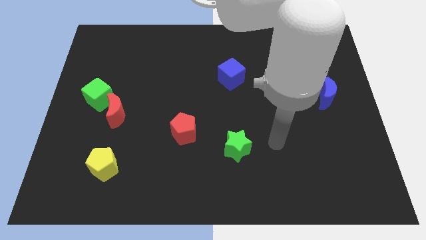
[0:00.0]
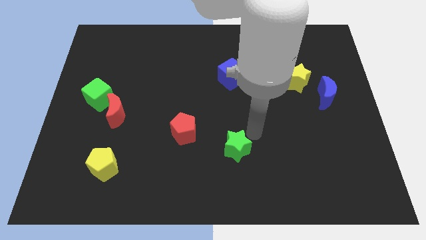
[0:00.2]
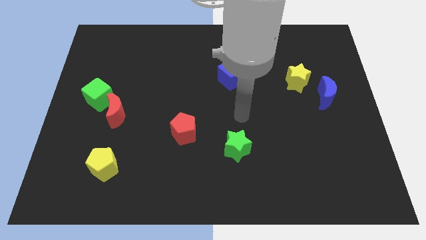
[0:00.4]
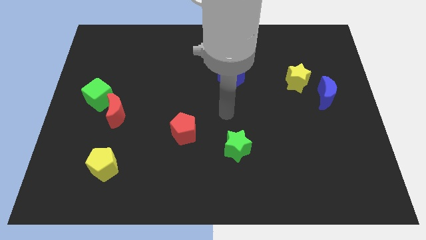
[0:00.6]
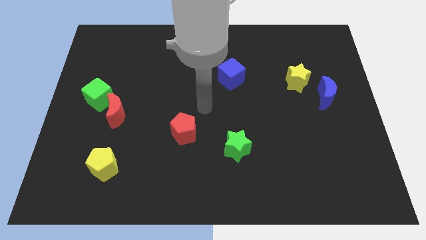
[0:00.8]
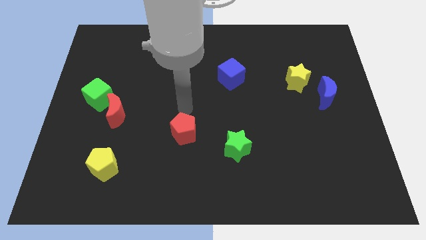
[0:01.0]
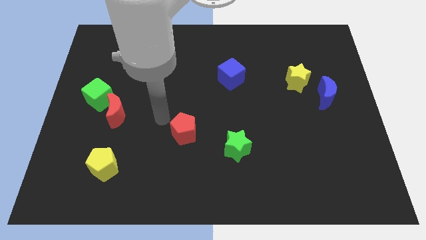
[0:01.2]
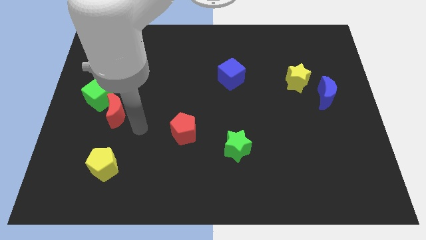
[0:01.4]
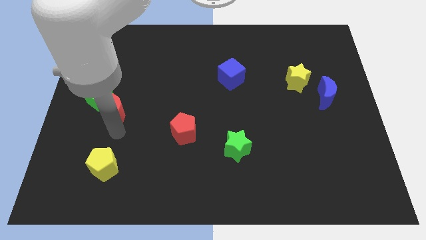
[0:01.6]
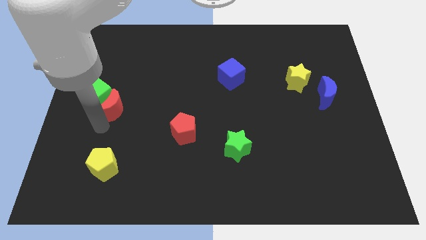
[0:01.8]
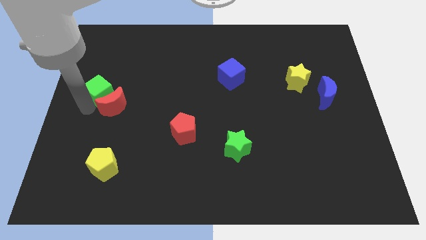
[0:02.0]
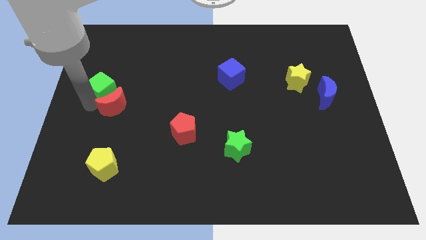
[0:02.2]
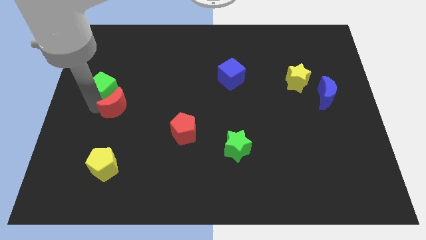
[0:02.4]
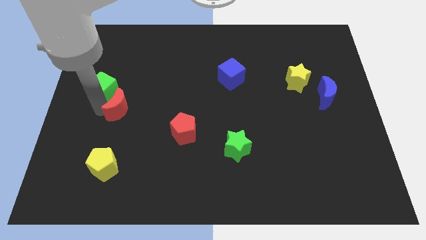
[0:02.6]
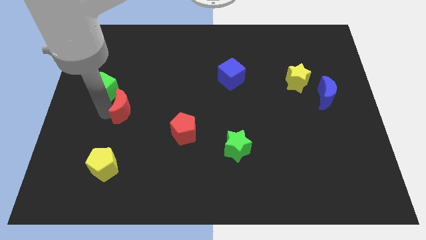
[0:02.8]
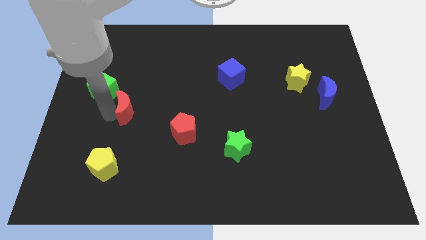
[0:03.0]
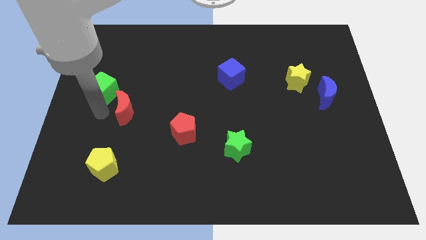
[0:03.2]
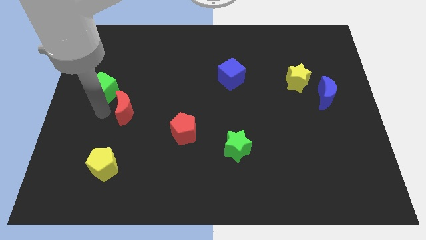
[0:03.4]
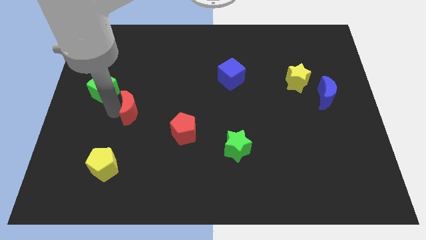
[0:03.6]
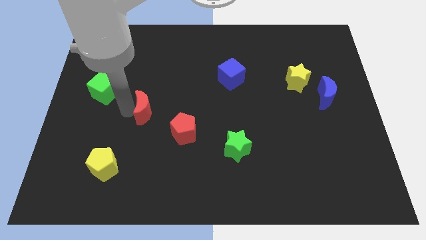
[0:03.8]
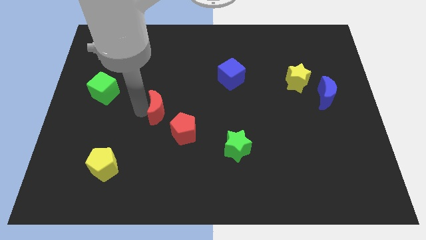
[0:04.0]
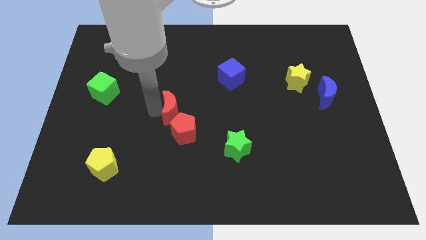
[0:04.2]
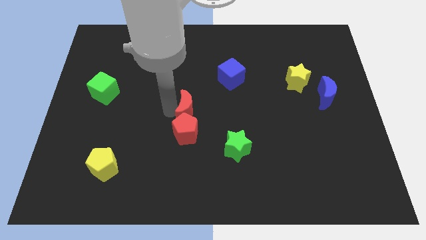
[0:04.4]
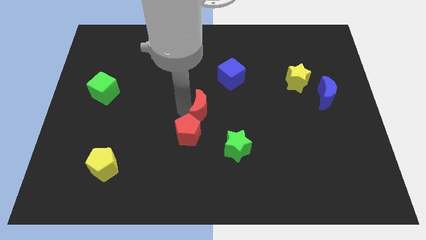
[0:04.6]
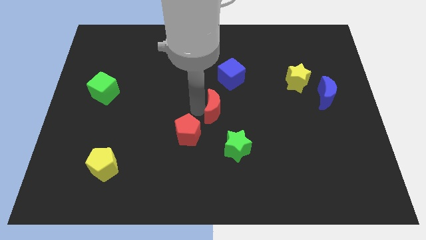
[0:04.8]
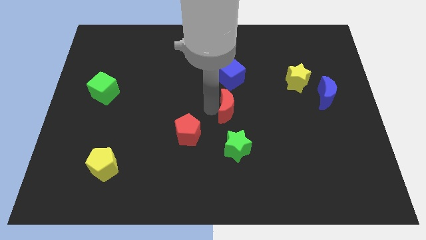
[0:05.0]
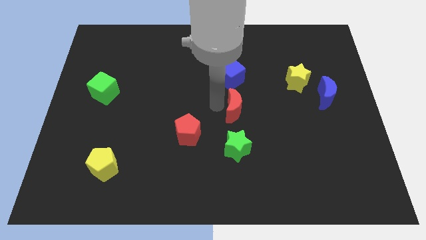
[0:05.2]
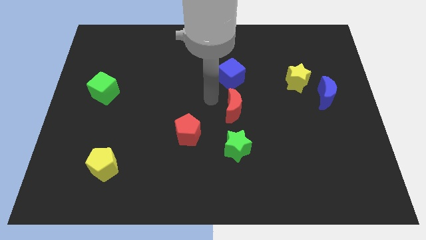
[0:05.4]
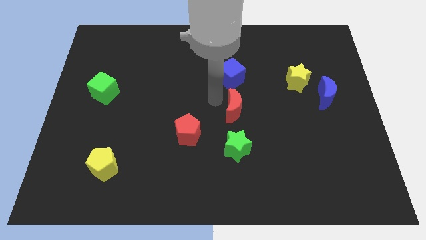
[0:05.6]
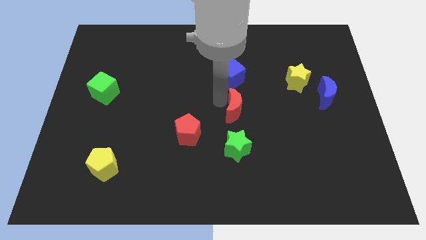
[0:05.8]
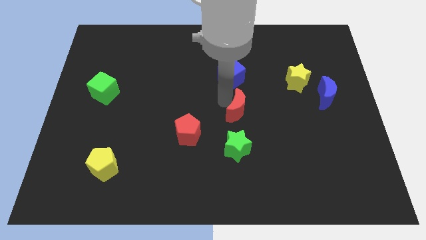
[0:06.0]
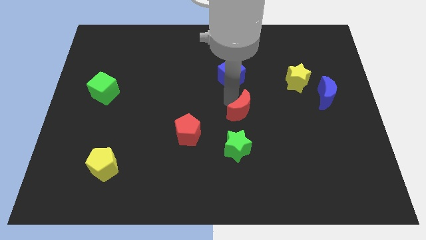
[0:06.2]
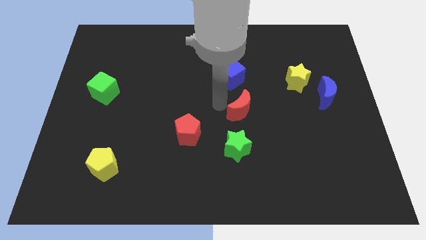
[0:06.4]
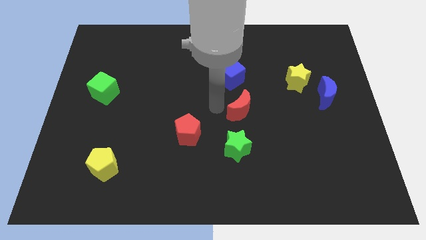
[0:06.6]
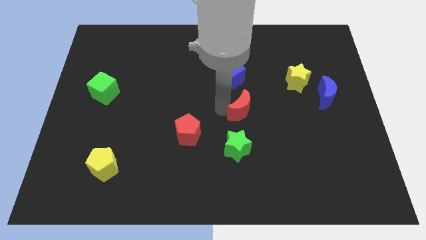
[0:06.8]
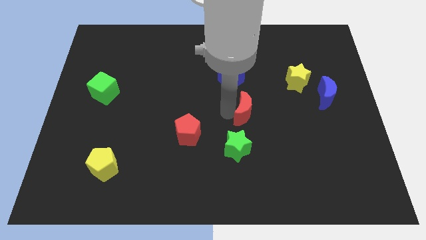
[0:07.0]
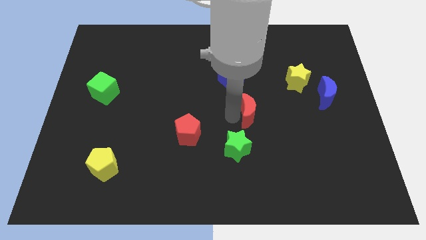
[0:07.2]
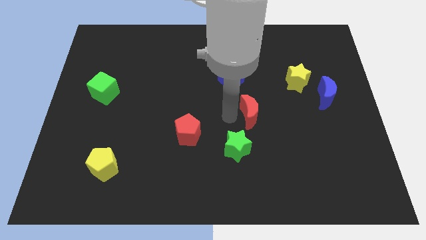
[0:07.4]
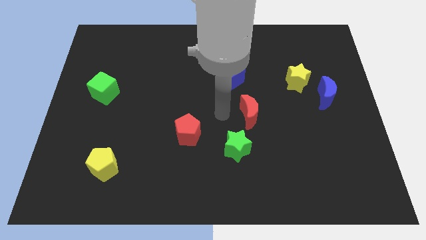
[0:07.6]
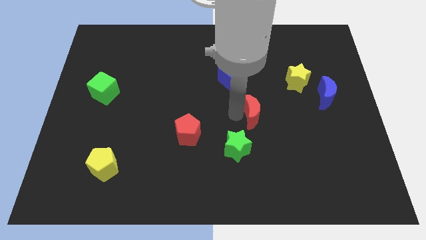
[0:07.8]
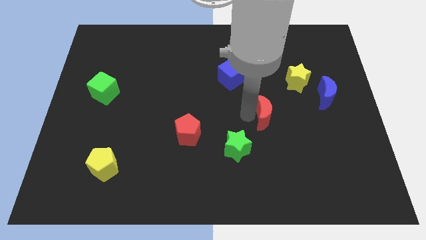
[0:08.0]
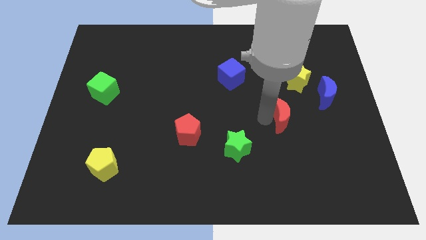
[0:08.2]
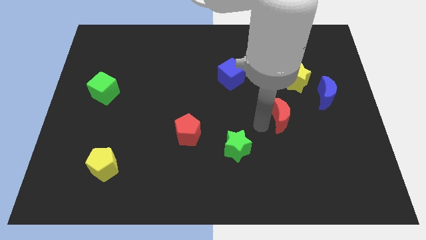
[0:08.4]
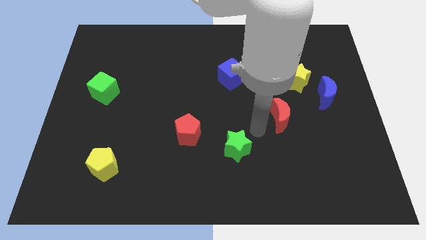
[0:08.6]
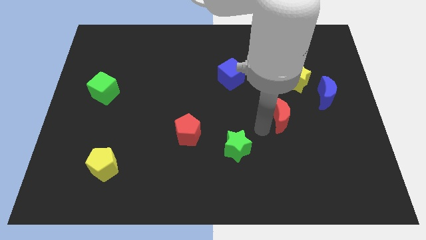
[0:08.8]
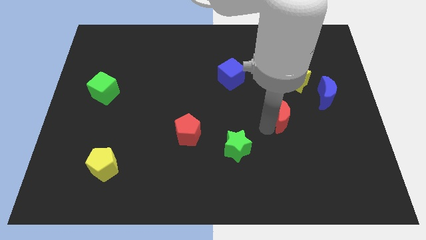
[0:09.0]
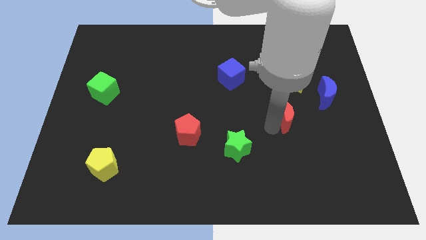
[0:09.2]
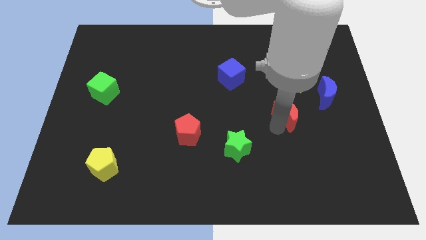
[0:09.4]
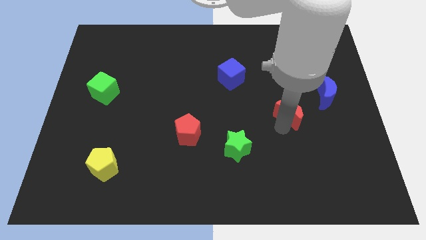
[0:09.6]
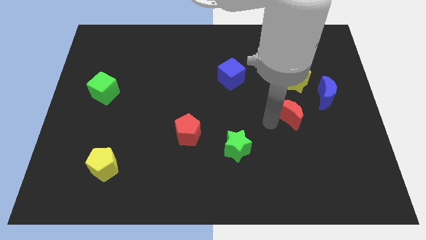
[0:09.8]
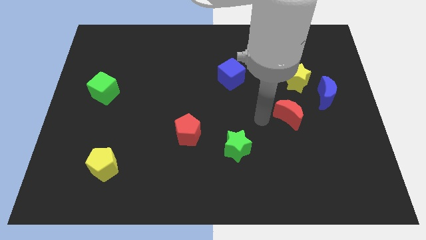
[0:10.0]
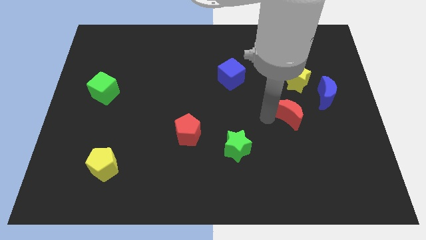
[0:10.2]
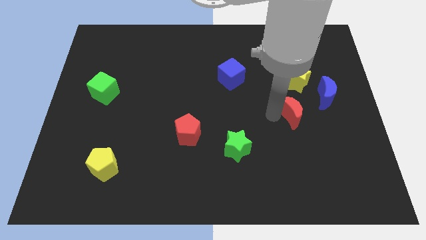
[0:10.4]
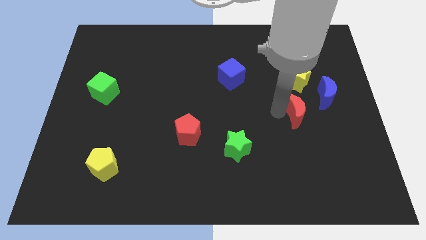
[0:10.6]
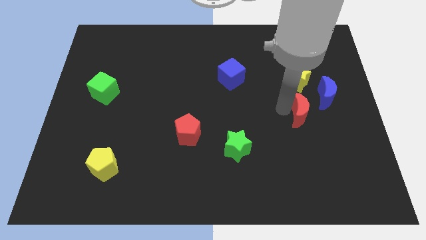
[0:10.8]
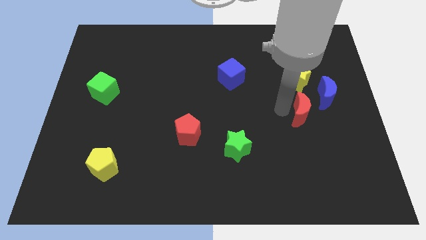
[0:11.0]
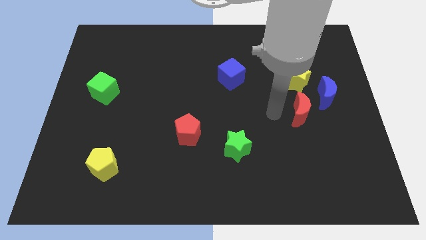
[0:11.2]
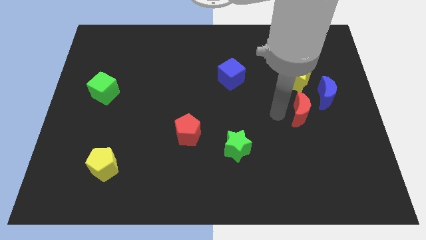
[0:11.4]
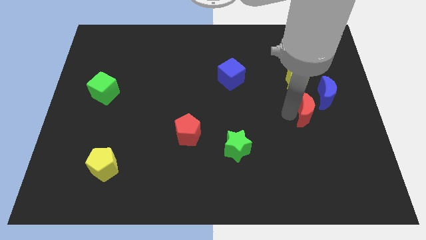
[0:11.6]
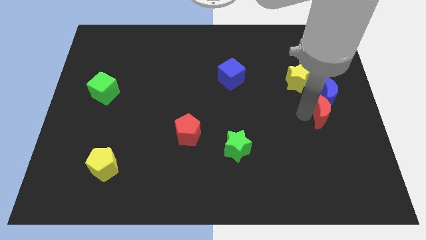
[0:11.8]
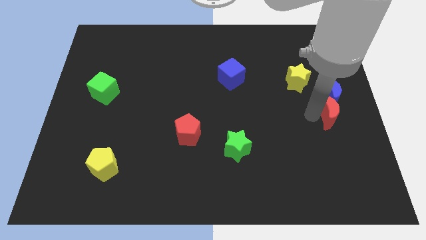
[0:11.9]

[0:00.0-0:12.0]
put the red moon to the right side of the board

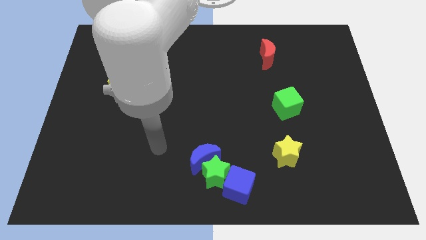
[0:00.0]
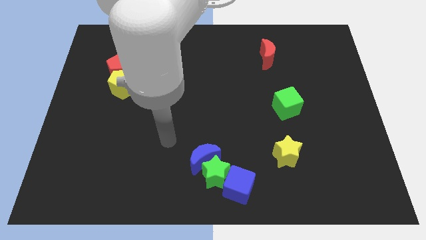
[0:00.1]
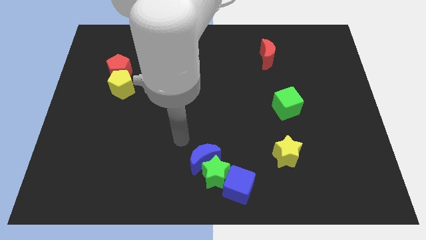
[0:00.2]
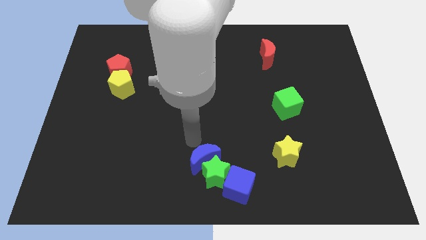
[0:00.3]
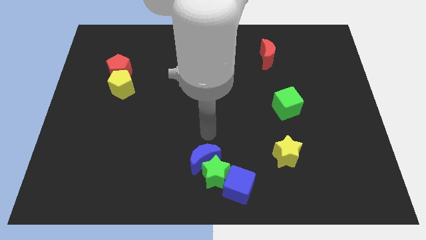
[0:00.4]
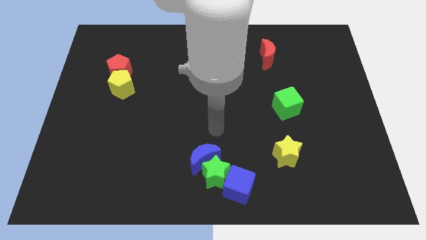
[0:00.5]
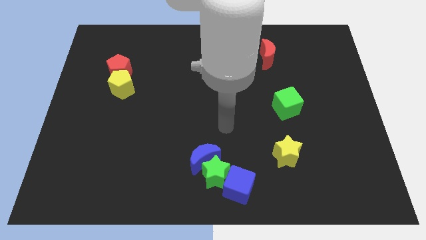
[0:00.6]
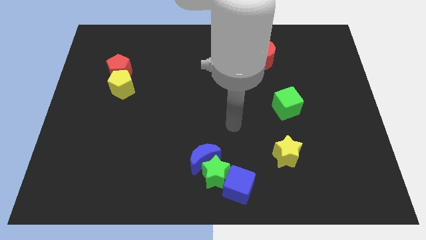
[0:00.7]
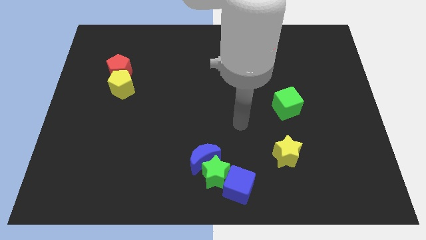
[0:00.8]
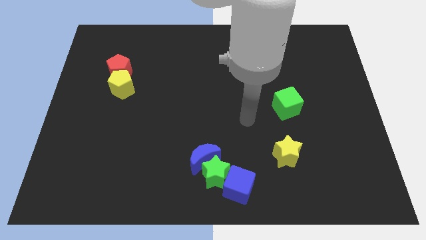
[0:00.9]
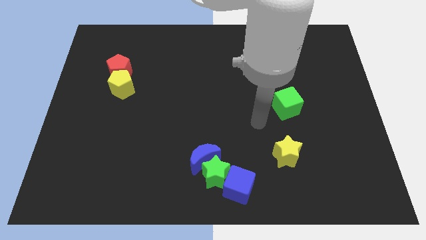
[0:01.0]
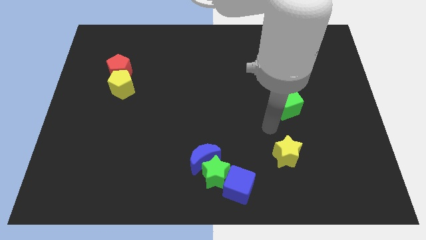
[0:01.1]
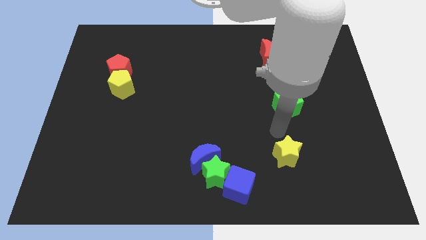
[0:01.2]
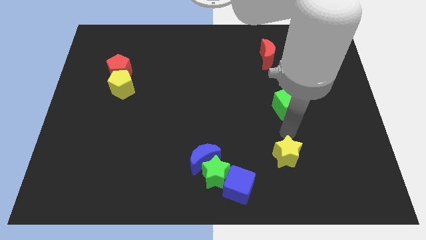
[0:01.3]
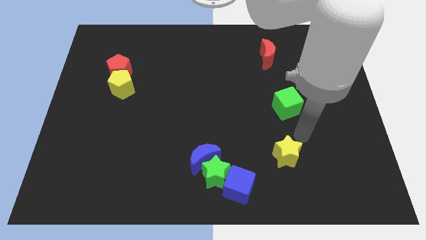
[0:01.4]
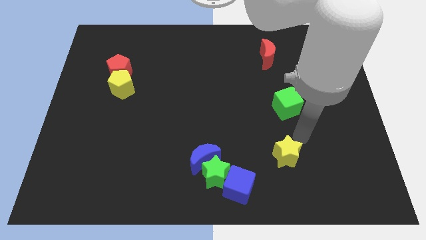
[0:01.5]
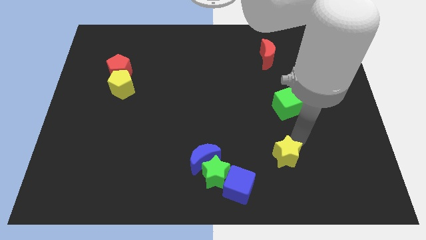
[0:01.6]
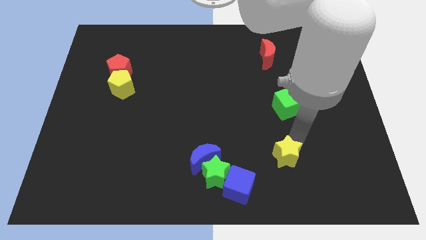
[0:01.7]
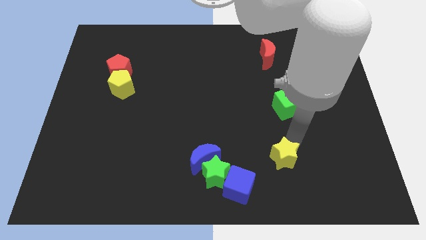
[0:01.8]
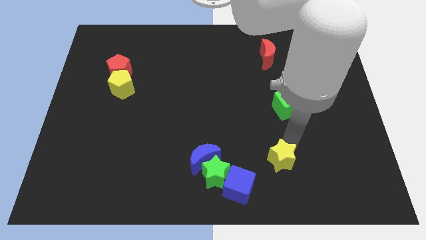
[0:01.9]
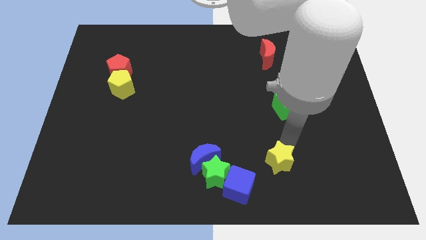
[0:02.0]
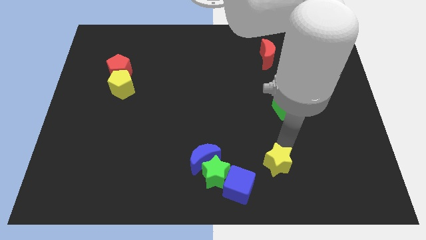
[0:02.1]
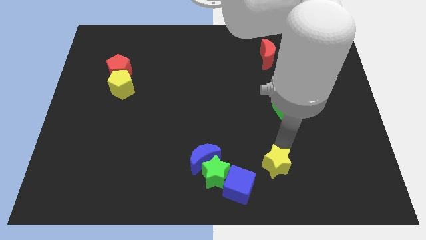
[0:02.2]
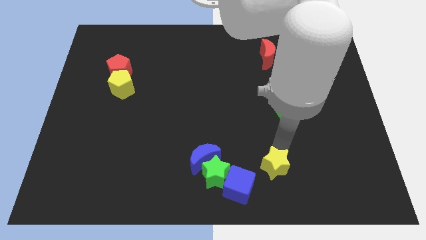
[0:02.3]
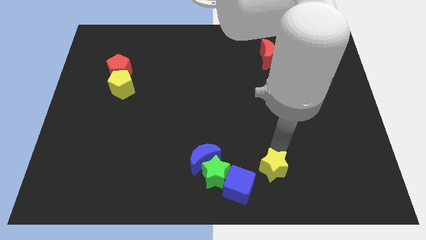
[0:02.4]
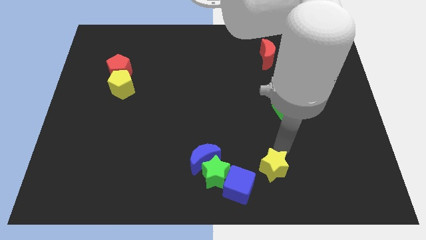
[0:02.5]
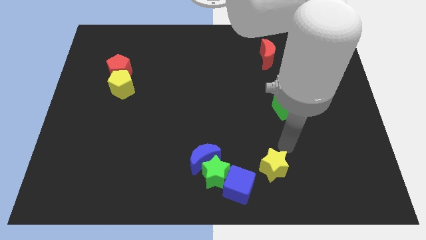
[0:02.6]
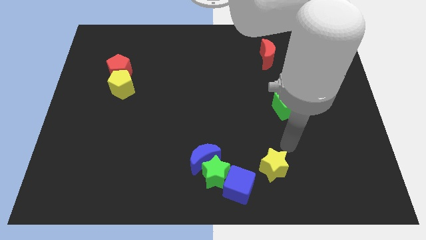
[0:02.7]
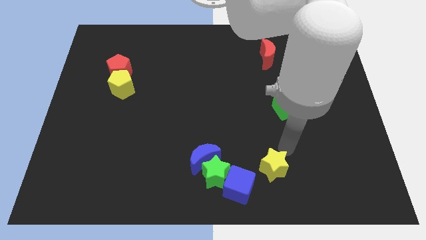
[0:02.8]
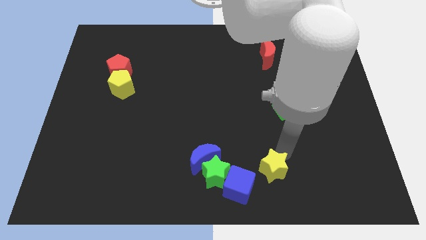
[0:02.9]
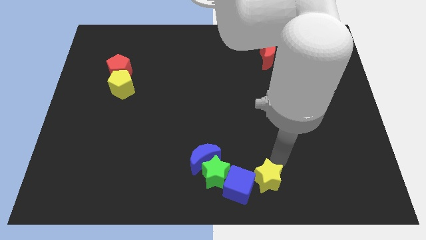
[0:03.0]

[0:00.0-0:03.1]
put the yellow star to the bottom
